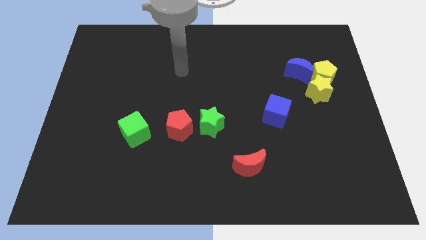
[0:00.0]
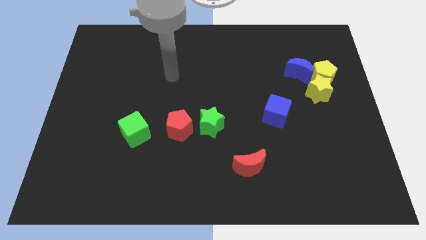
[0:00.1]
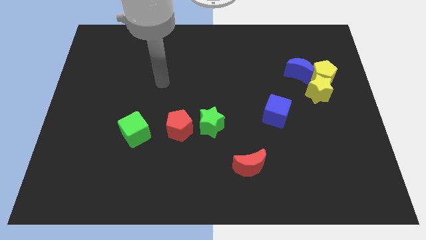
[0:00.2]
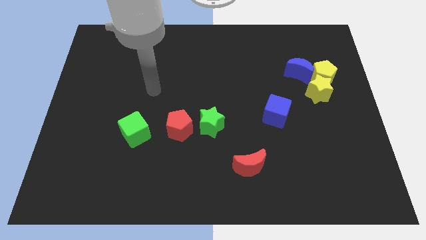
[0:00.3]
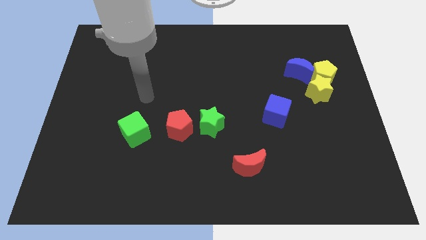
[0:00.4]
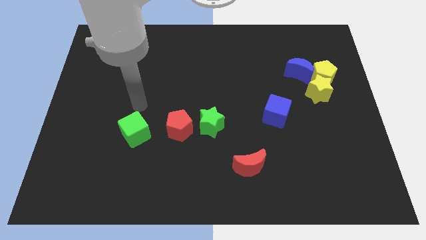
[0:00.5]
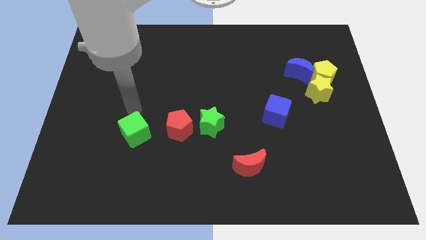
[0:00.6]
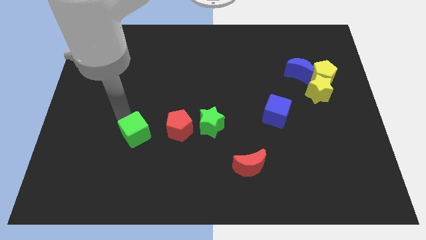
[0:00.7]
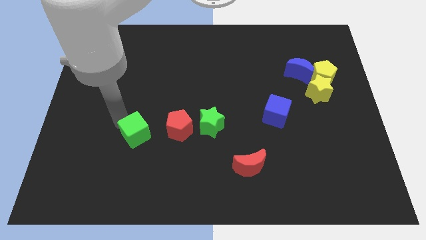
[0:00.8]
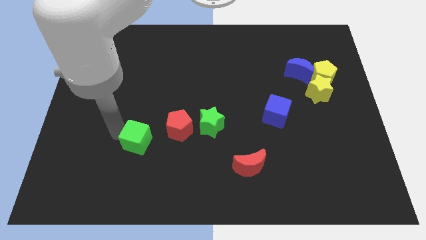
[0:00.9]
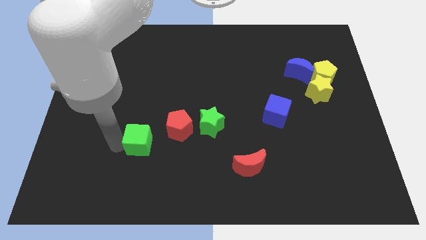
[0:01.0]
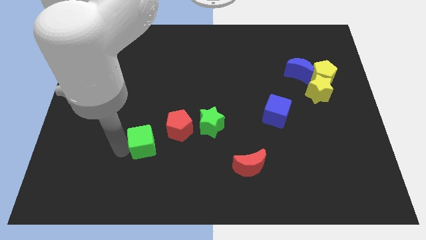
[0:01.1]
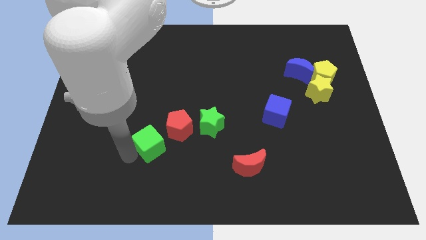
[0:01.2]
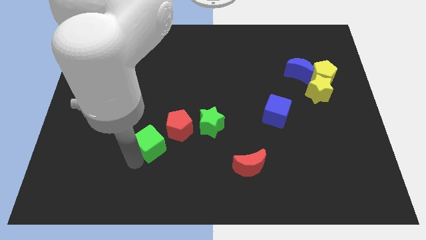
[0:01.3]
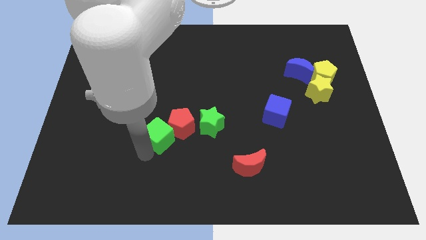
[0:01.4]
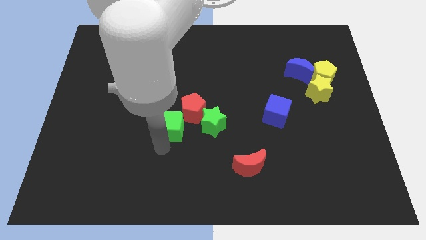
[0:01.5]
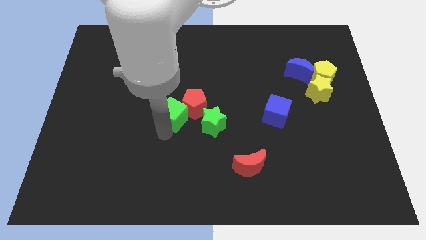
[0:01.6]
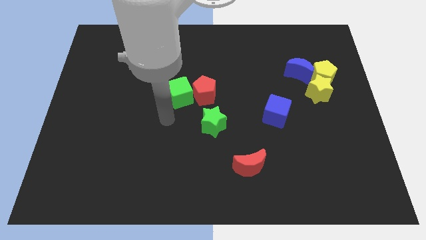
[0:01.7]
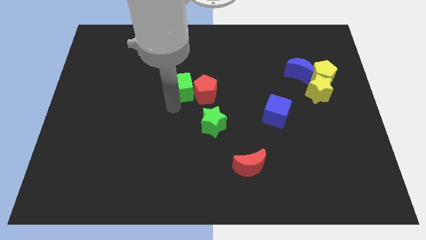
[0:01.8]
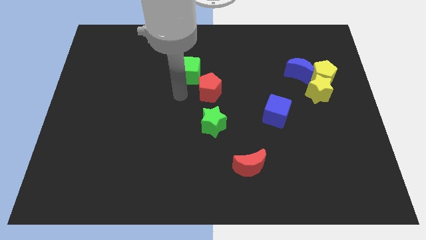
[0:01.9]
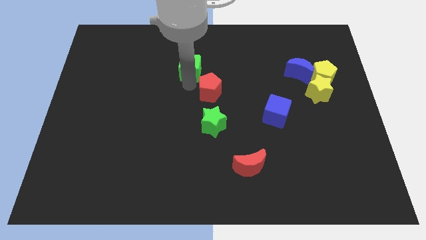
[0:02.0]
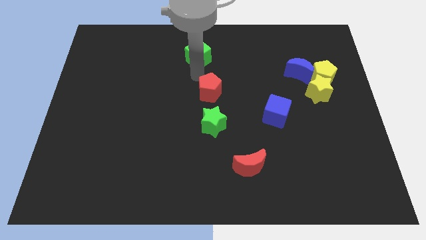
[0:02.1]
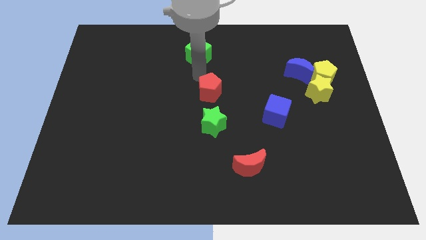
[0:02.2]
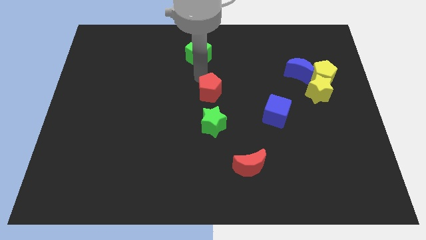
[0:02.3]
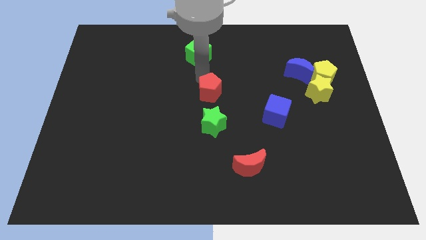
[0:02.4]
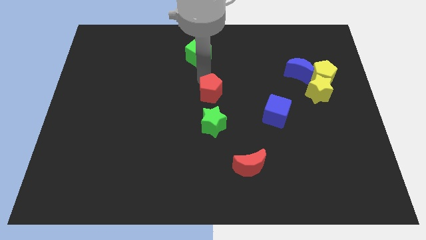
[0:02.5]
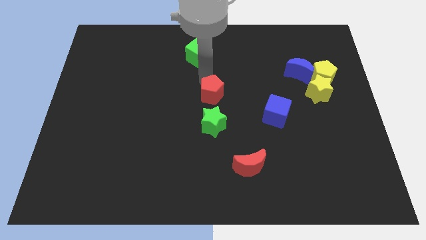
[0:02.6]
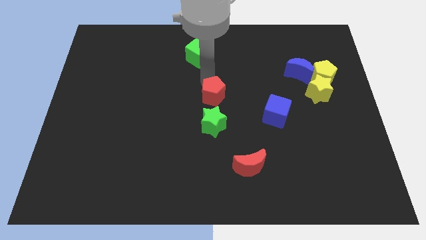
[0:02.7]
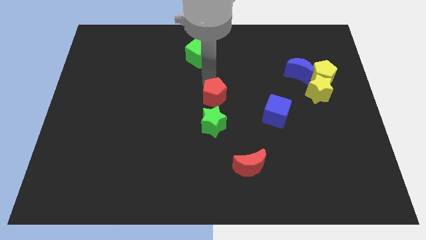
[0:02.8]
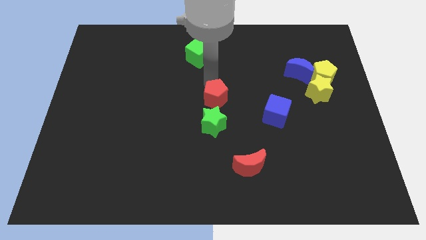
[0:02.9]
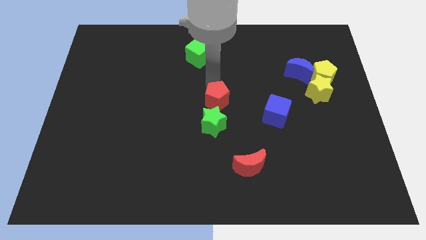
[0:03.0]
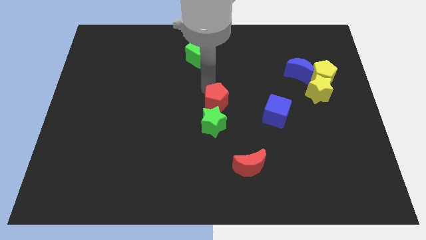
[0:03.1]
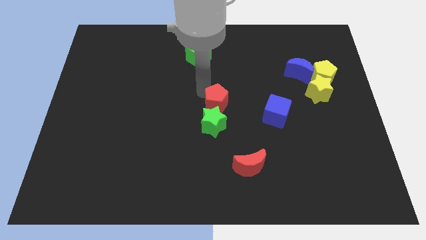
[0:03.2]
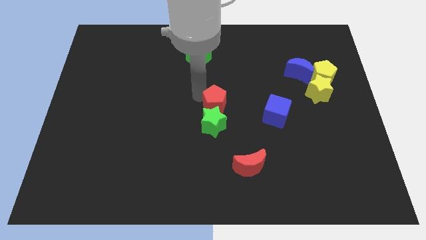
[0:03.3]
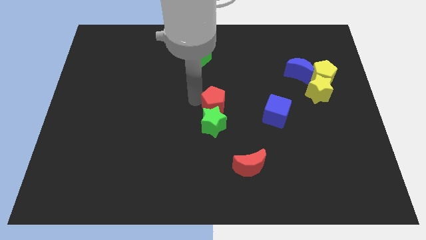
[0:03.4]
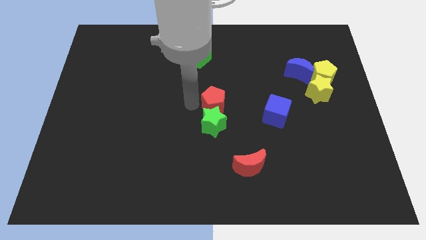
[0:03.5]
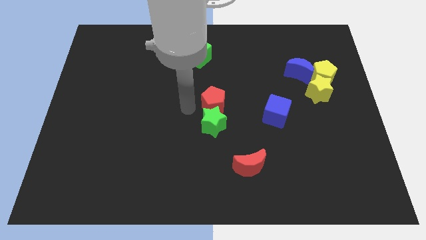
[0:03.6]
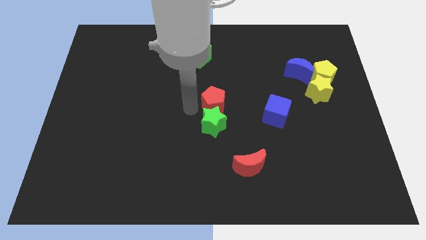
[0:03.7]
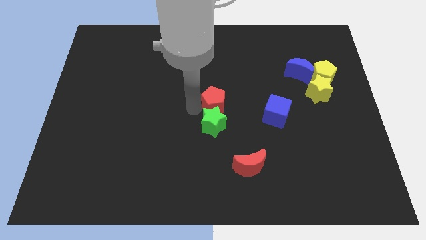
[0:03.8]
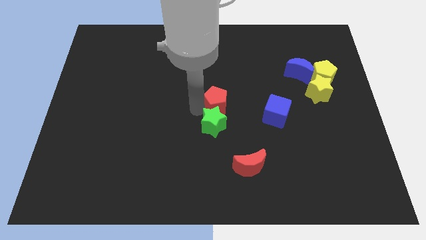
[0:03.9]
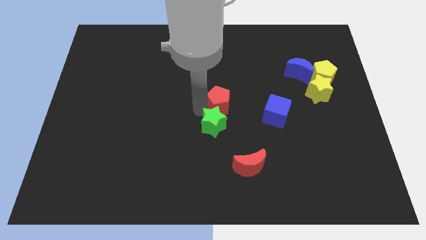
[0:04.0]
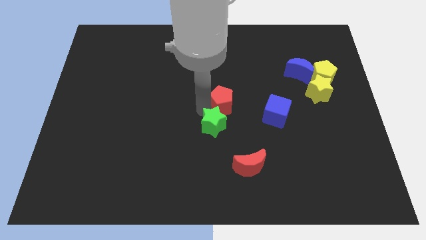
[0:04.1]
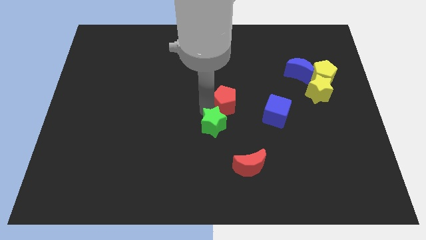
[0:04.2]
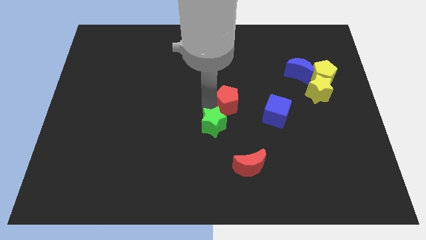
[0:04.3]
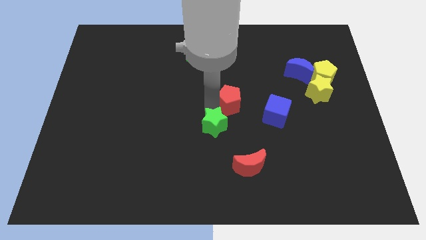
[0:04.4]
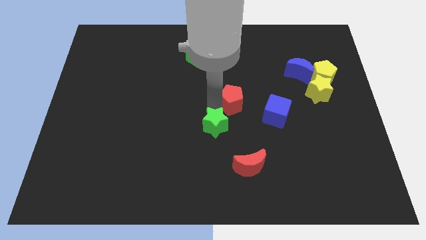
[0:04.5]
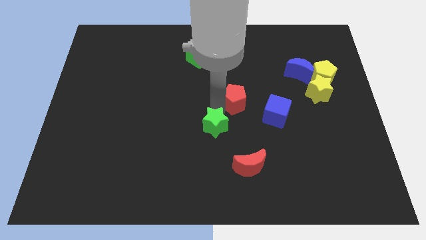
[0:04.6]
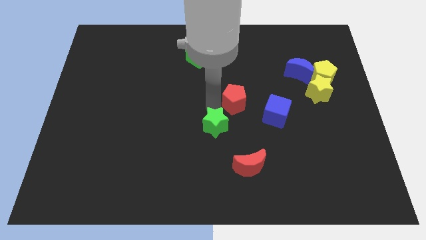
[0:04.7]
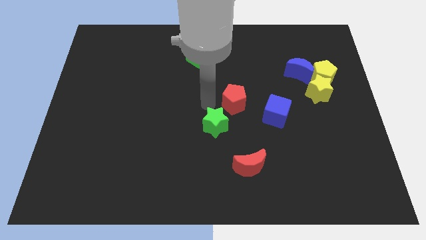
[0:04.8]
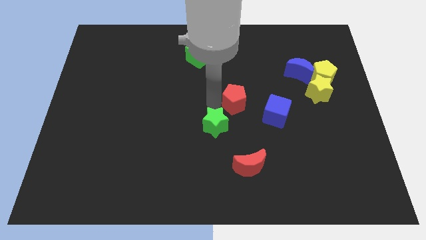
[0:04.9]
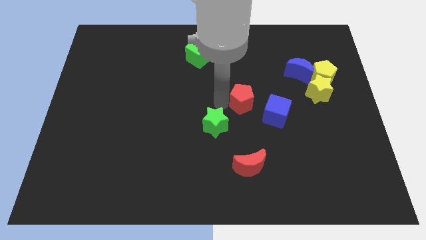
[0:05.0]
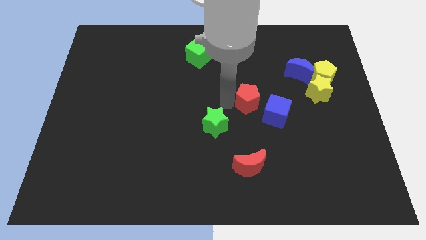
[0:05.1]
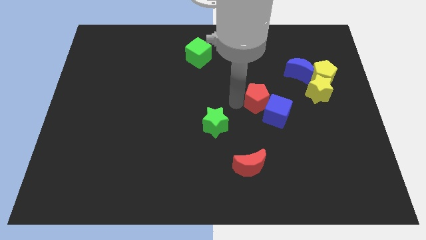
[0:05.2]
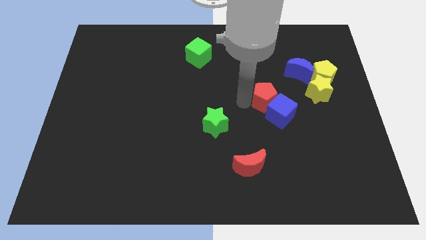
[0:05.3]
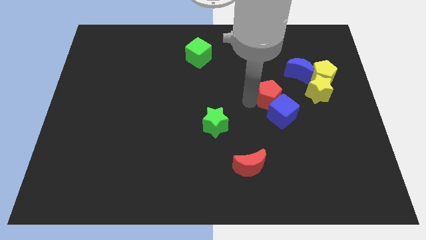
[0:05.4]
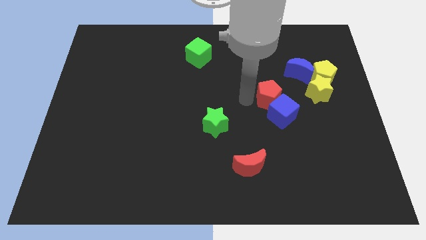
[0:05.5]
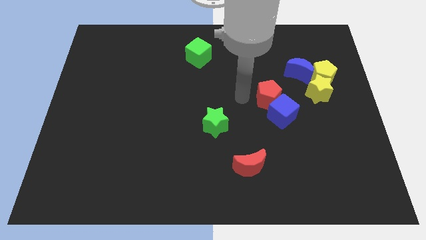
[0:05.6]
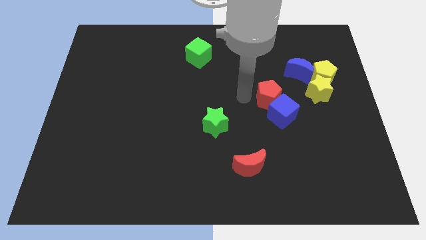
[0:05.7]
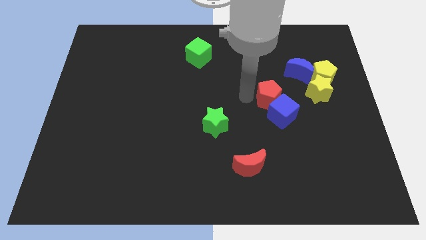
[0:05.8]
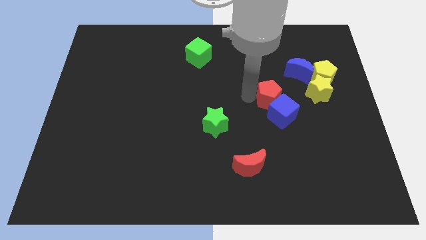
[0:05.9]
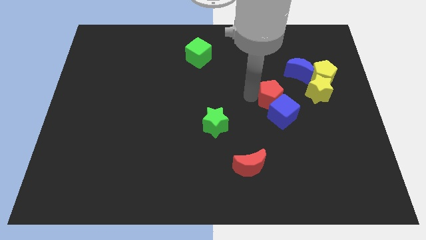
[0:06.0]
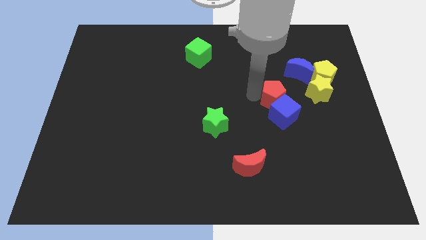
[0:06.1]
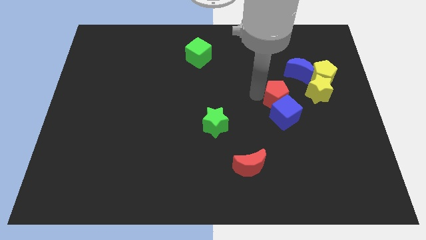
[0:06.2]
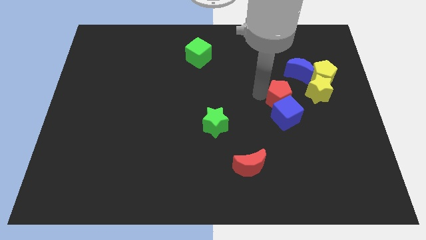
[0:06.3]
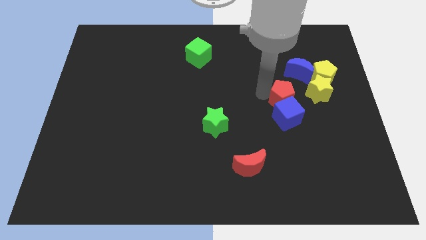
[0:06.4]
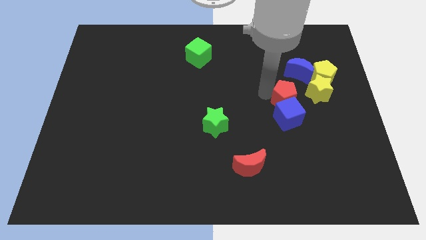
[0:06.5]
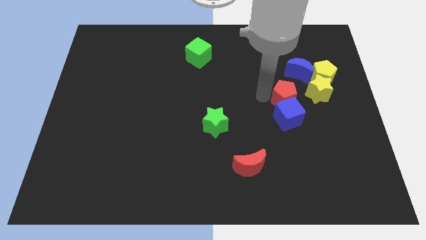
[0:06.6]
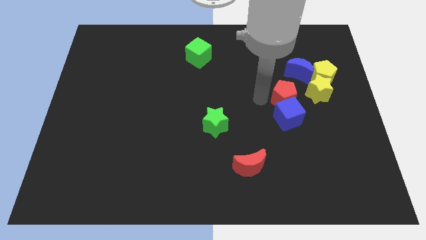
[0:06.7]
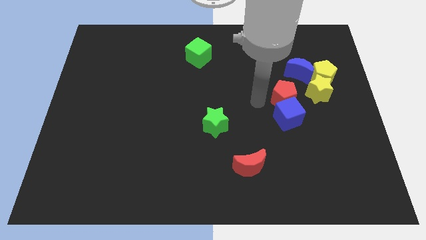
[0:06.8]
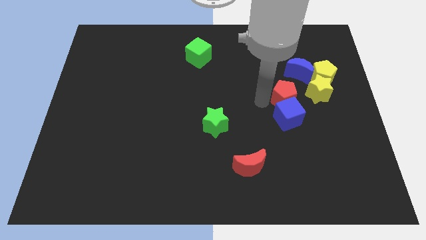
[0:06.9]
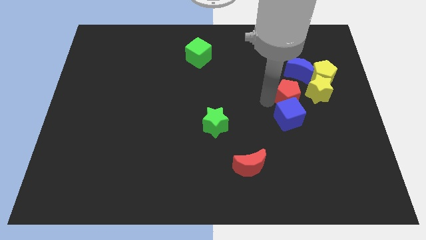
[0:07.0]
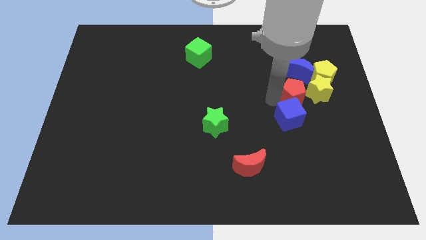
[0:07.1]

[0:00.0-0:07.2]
push the red pentagon towards the yellow star
